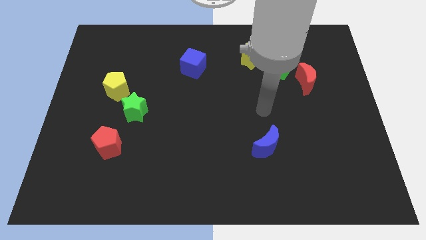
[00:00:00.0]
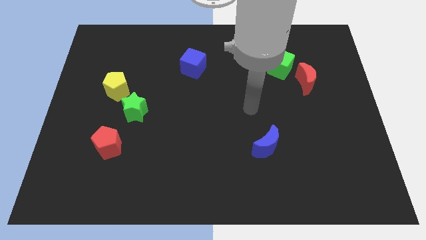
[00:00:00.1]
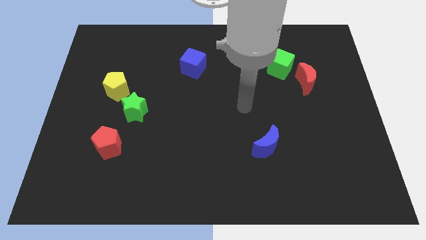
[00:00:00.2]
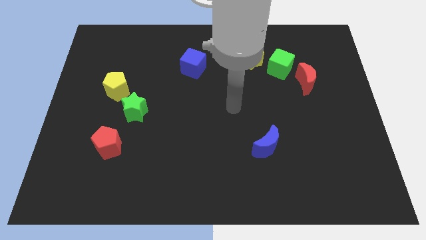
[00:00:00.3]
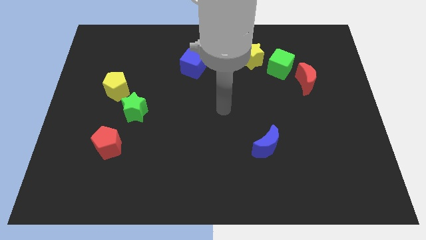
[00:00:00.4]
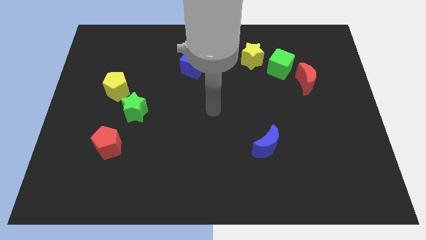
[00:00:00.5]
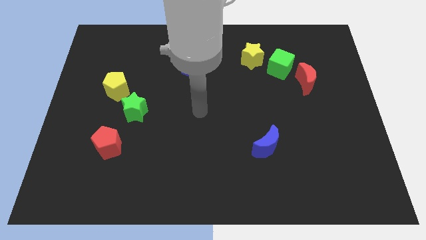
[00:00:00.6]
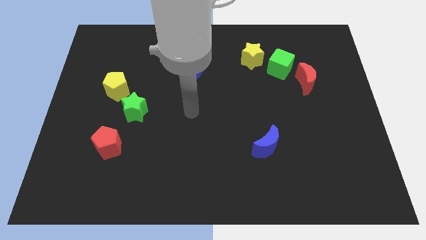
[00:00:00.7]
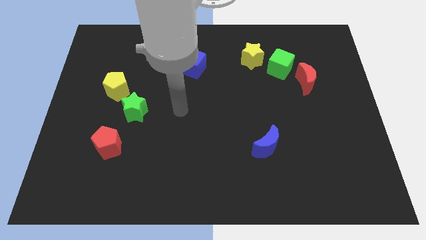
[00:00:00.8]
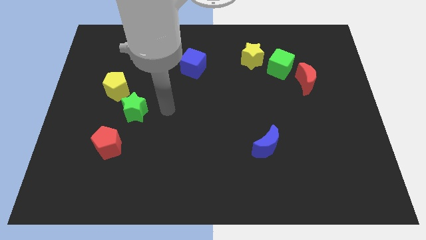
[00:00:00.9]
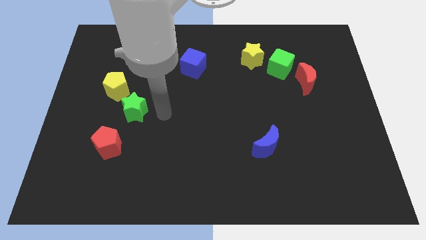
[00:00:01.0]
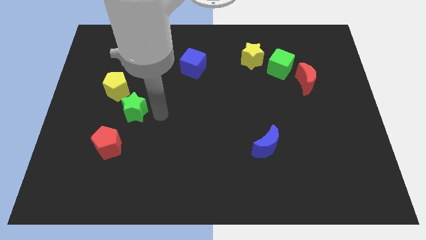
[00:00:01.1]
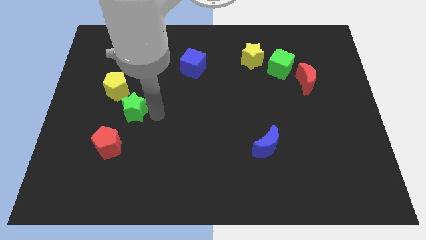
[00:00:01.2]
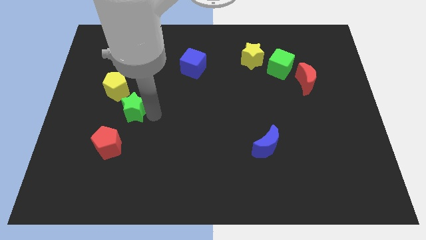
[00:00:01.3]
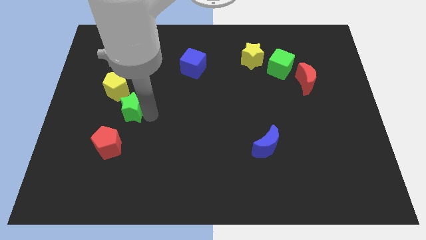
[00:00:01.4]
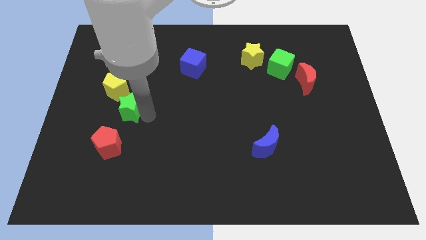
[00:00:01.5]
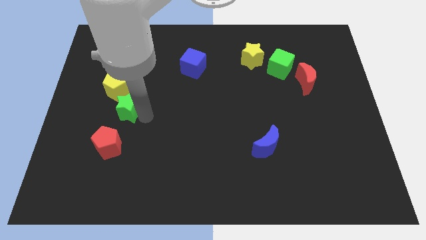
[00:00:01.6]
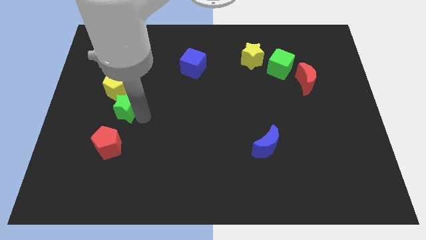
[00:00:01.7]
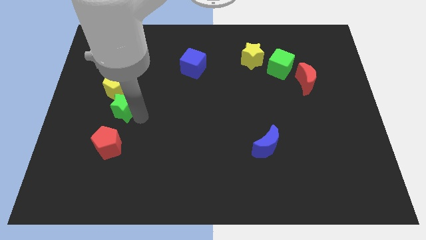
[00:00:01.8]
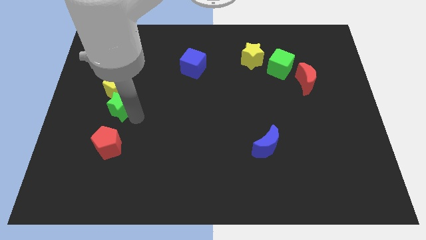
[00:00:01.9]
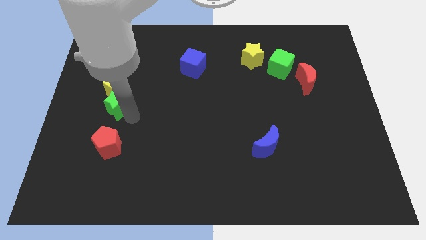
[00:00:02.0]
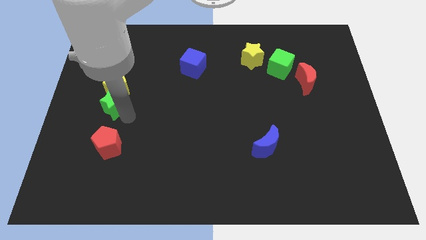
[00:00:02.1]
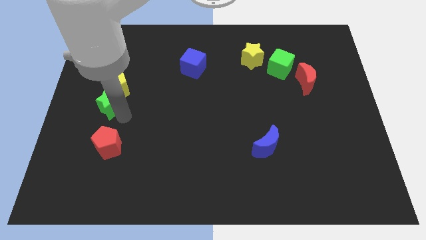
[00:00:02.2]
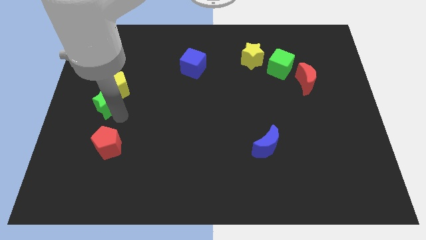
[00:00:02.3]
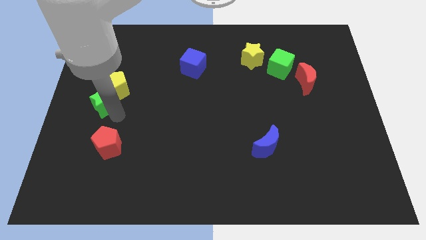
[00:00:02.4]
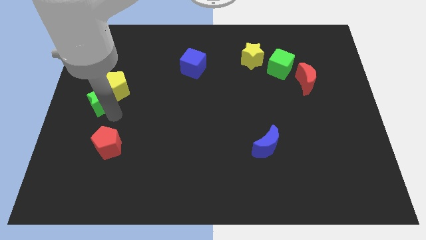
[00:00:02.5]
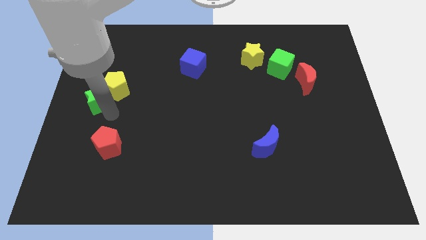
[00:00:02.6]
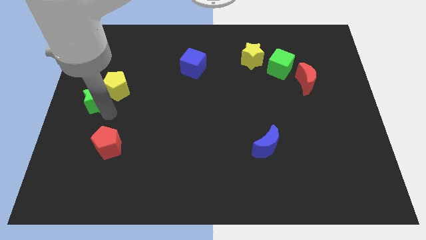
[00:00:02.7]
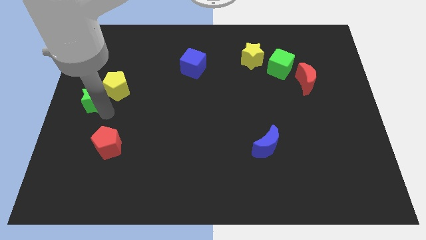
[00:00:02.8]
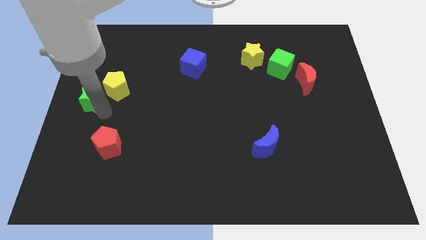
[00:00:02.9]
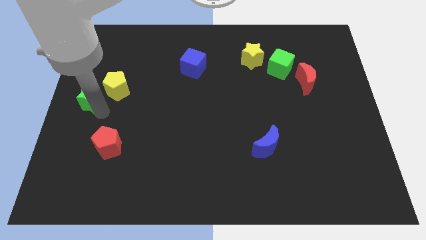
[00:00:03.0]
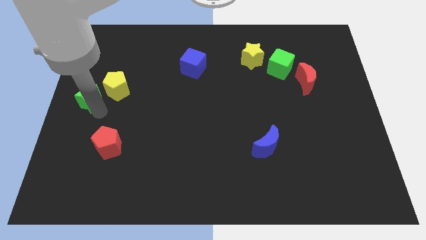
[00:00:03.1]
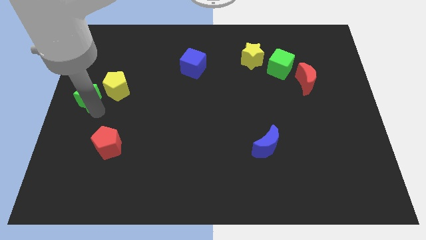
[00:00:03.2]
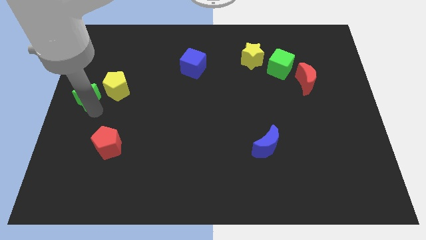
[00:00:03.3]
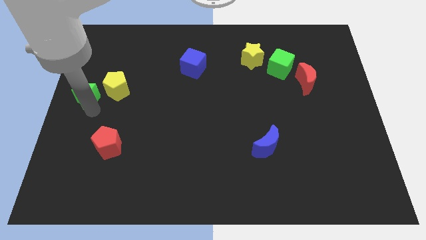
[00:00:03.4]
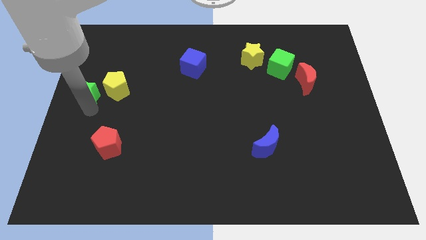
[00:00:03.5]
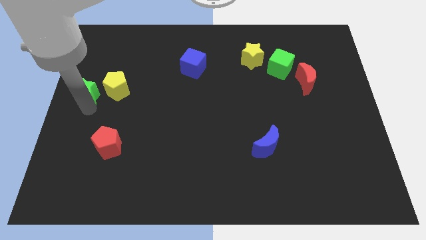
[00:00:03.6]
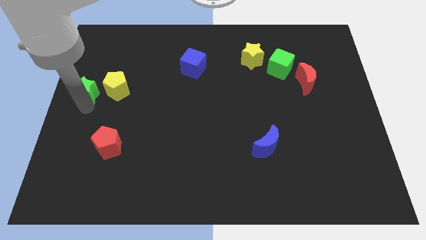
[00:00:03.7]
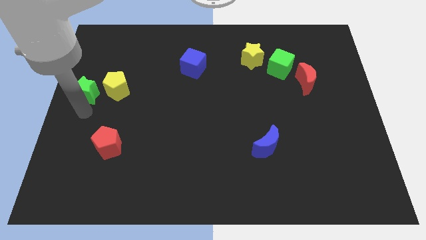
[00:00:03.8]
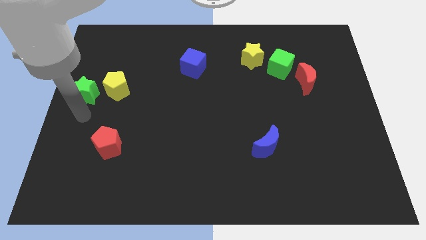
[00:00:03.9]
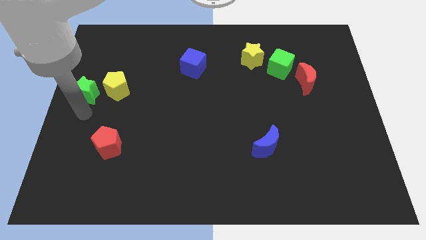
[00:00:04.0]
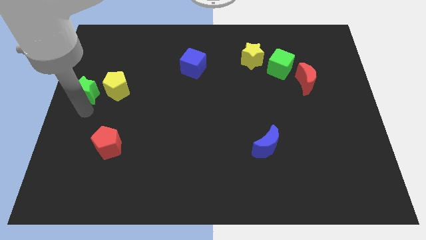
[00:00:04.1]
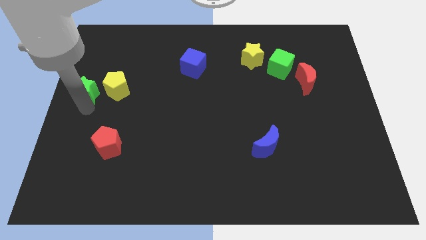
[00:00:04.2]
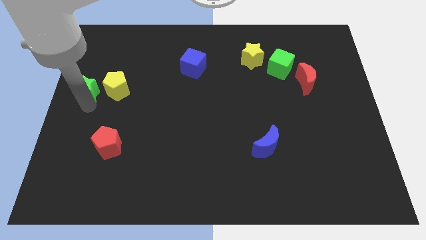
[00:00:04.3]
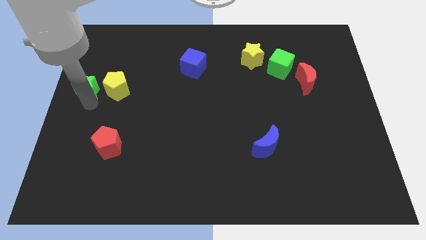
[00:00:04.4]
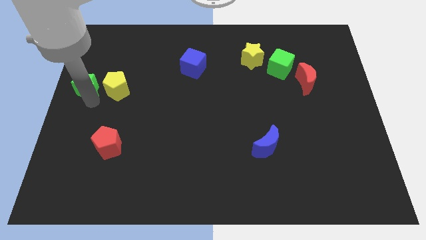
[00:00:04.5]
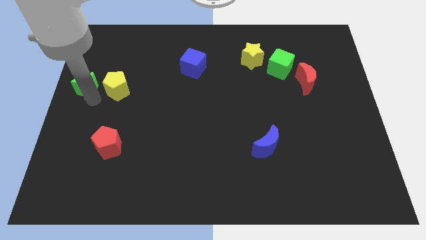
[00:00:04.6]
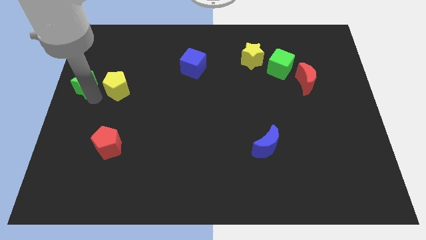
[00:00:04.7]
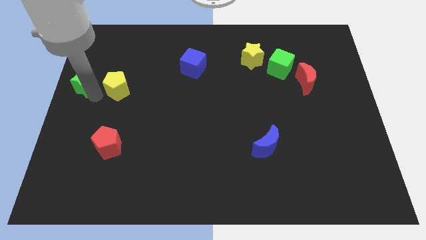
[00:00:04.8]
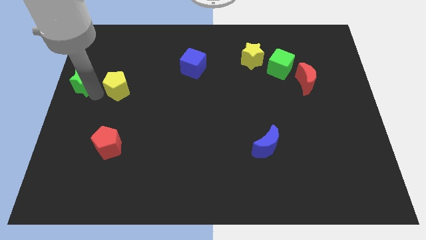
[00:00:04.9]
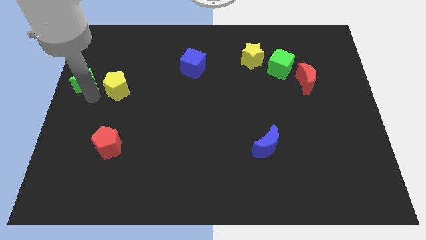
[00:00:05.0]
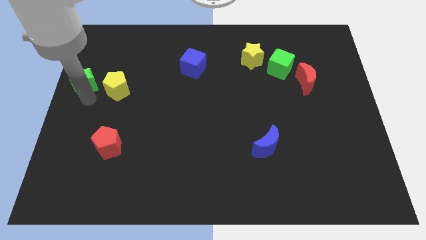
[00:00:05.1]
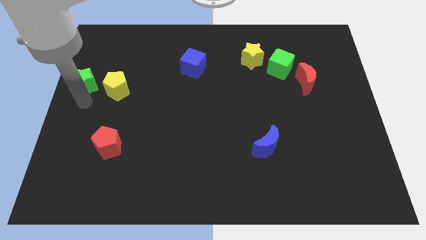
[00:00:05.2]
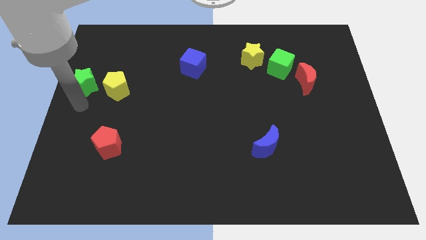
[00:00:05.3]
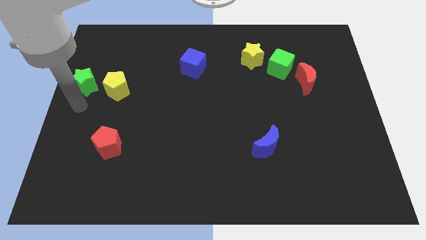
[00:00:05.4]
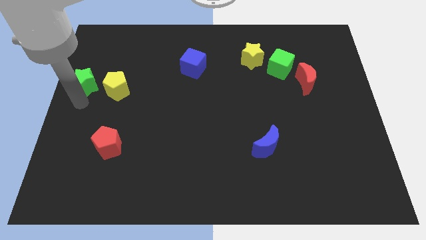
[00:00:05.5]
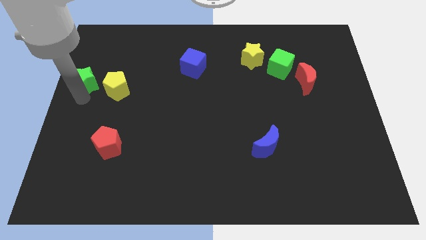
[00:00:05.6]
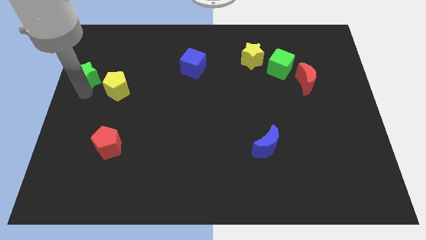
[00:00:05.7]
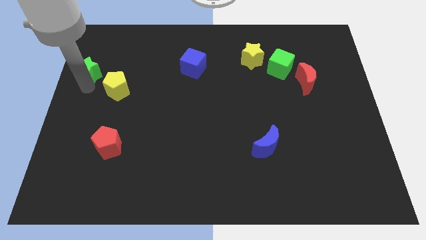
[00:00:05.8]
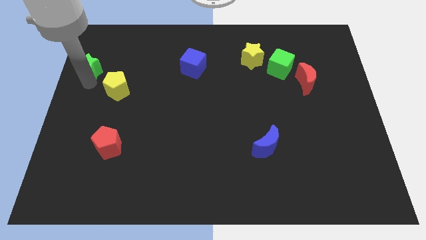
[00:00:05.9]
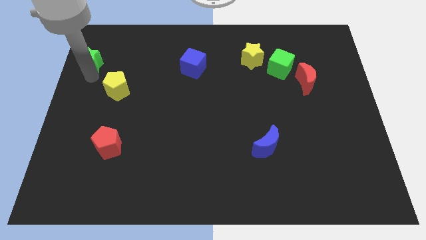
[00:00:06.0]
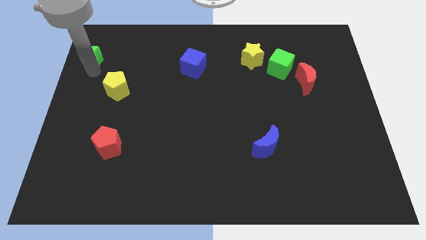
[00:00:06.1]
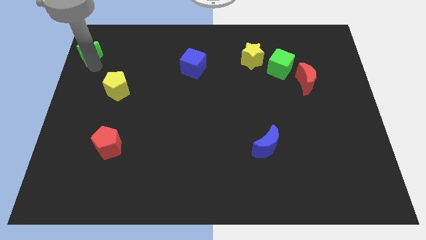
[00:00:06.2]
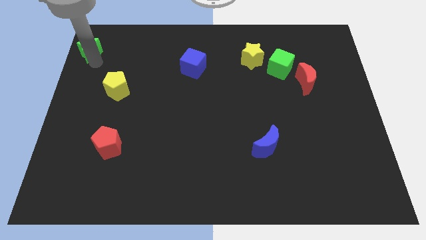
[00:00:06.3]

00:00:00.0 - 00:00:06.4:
push the green star to the top left corner
